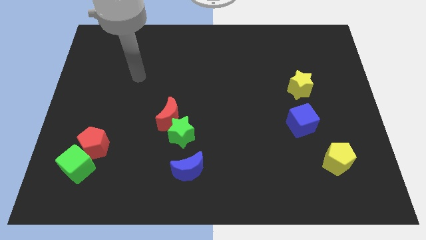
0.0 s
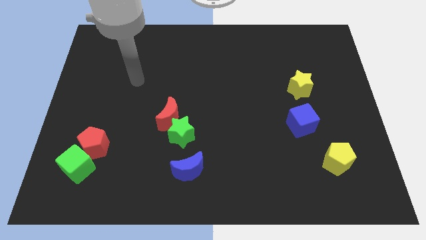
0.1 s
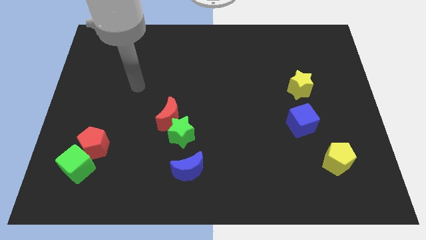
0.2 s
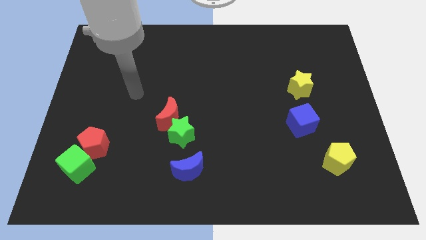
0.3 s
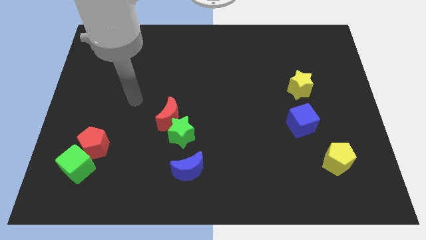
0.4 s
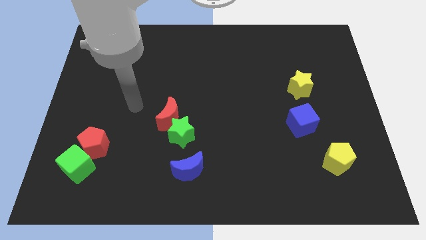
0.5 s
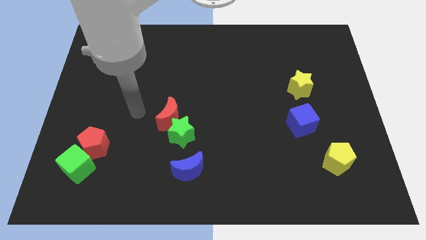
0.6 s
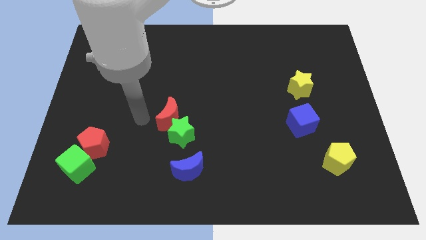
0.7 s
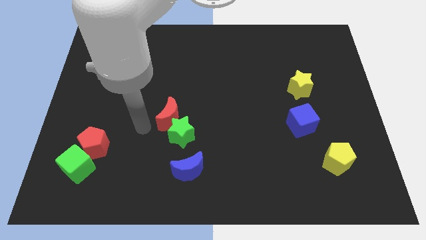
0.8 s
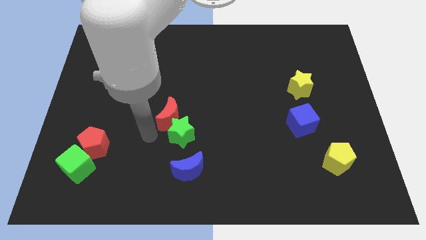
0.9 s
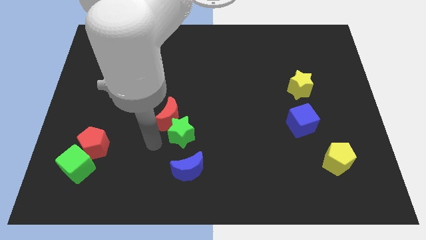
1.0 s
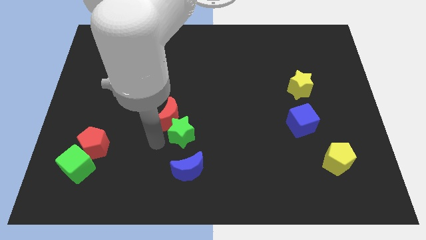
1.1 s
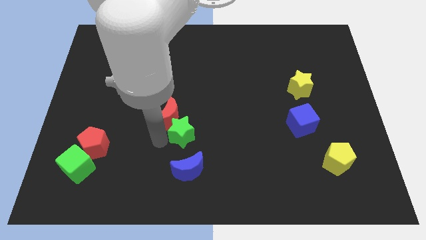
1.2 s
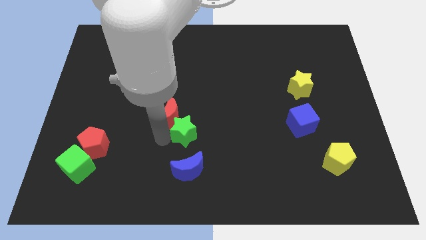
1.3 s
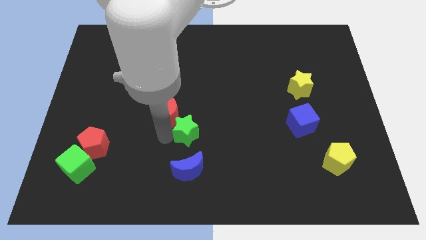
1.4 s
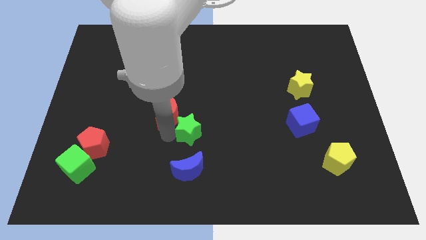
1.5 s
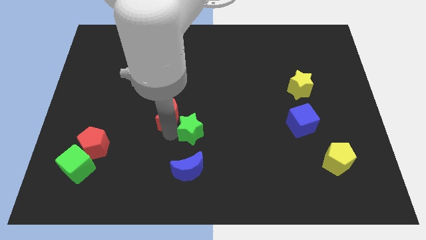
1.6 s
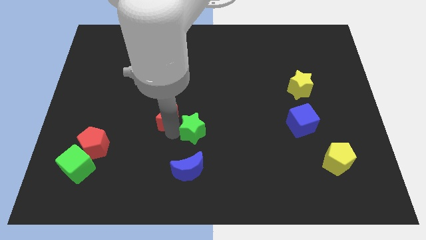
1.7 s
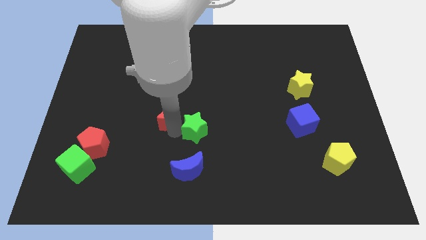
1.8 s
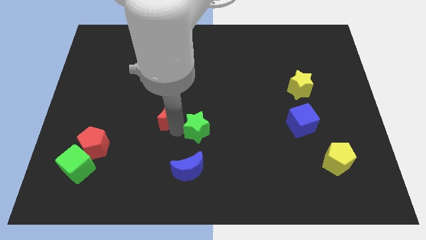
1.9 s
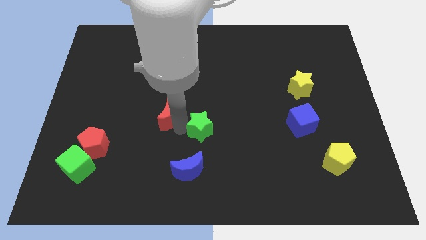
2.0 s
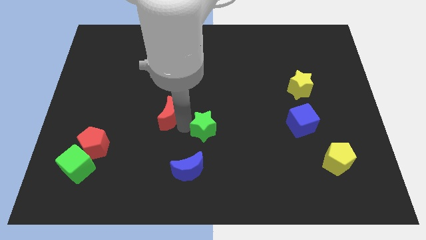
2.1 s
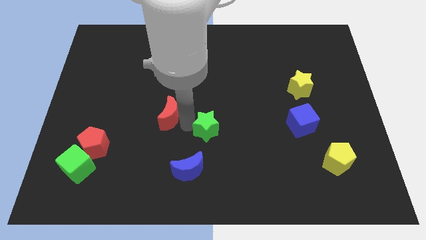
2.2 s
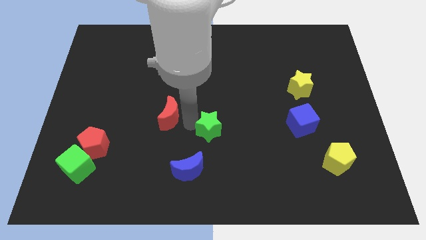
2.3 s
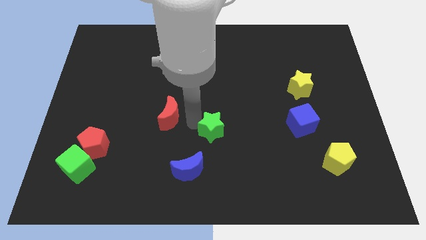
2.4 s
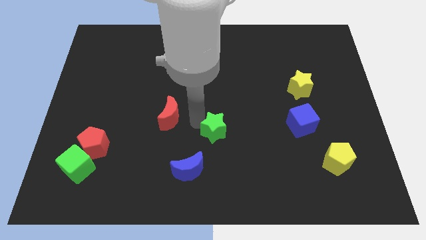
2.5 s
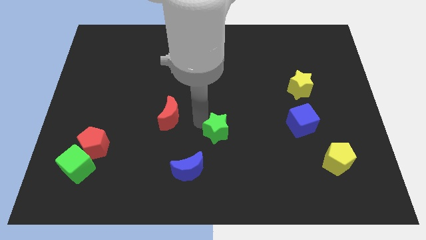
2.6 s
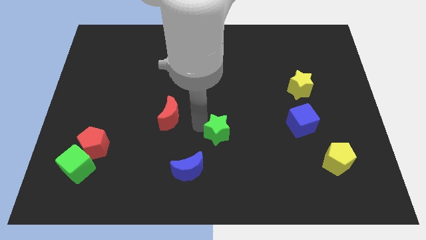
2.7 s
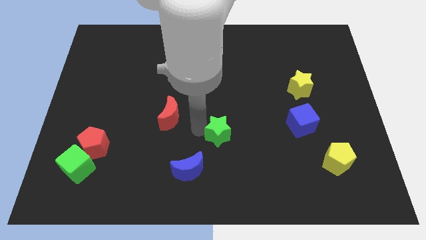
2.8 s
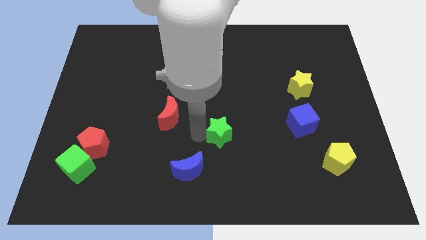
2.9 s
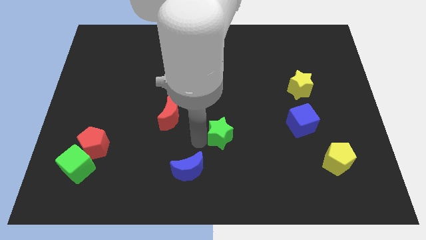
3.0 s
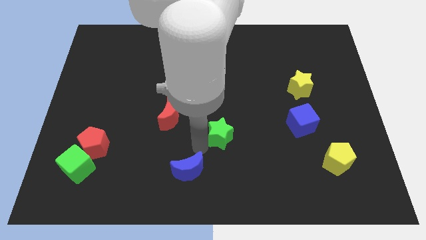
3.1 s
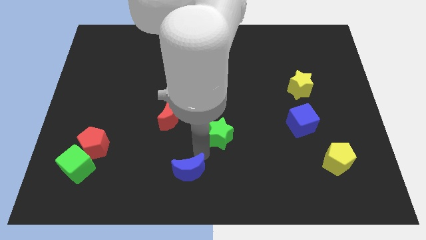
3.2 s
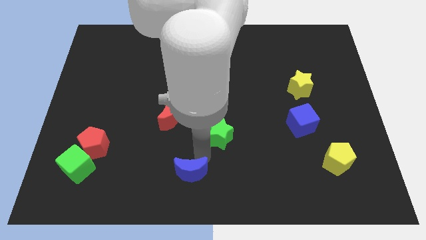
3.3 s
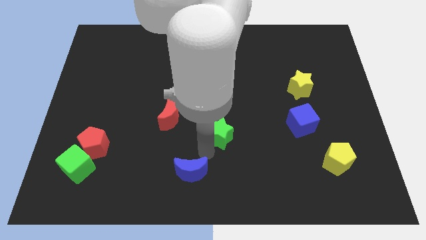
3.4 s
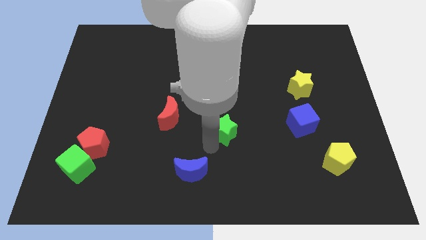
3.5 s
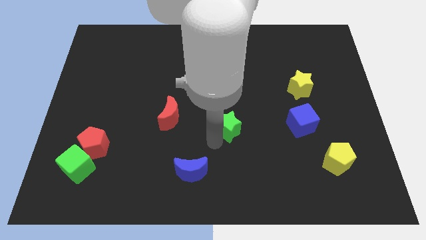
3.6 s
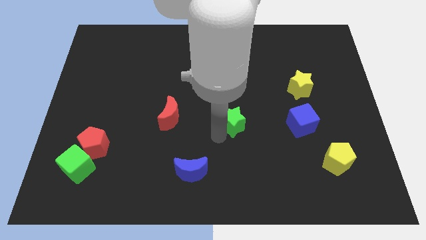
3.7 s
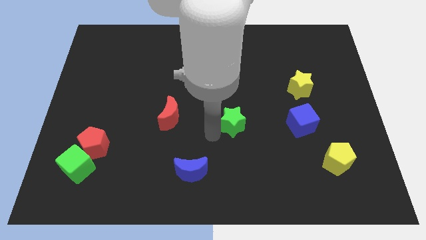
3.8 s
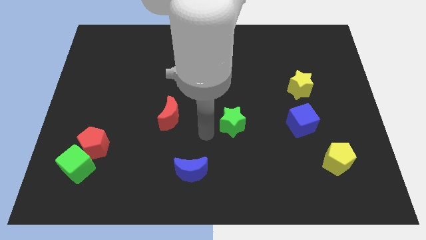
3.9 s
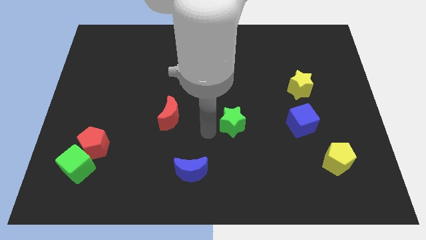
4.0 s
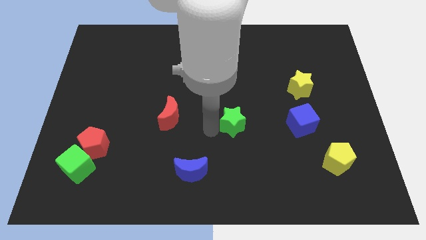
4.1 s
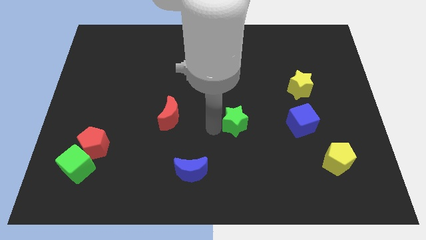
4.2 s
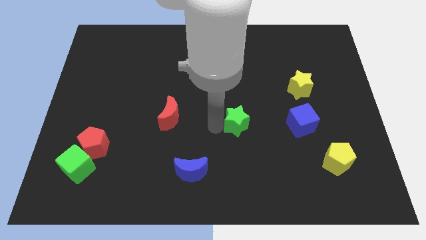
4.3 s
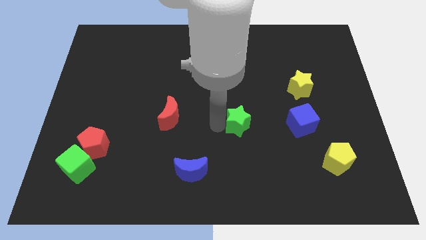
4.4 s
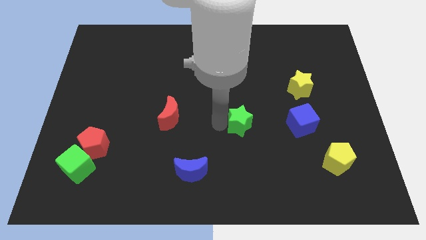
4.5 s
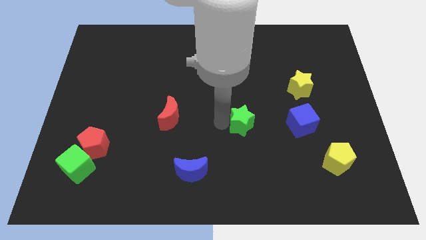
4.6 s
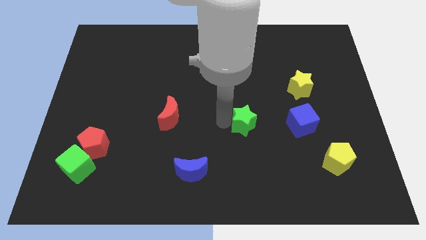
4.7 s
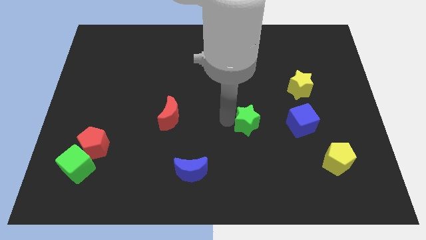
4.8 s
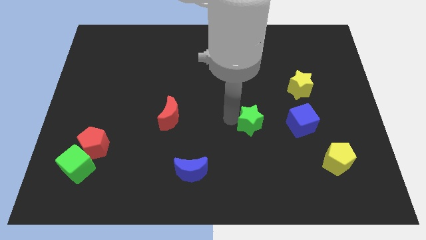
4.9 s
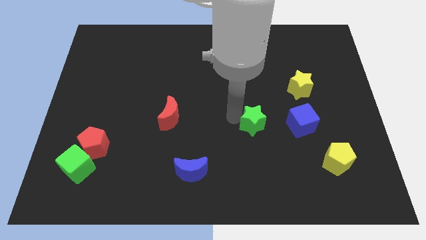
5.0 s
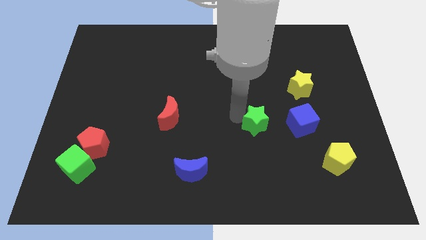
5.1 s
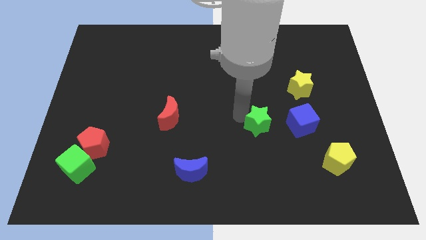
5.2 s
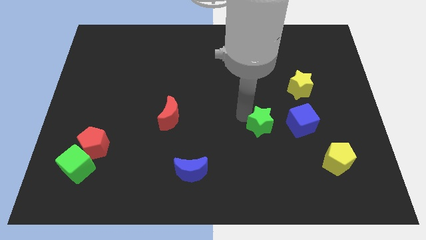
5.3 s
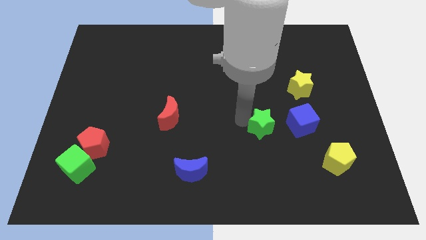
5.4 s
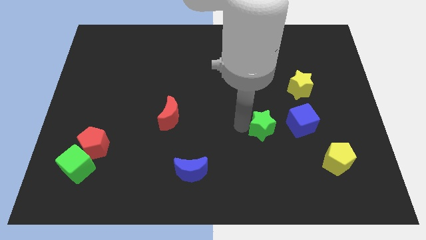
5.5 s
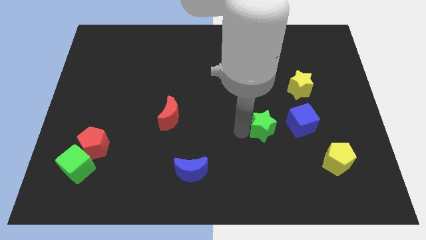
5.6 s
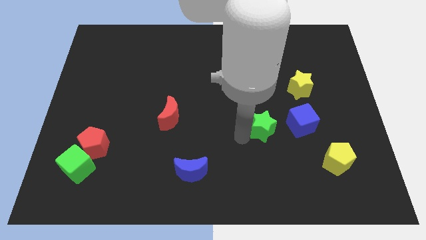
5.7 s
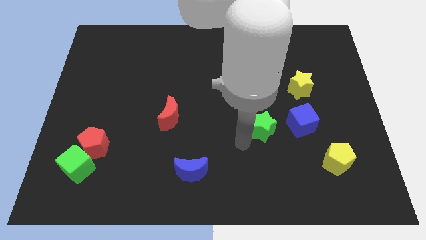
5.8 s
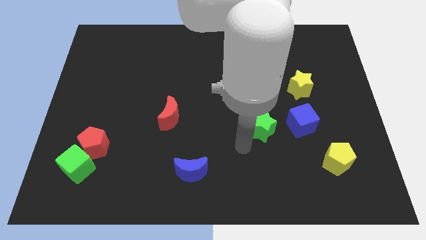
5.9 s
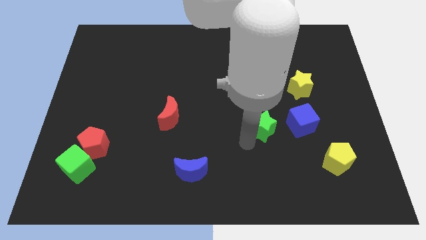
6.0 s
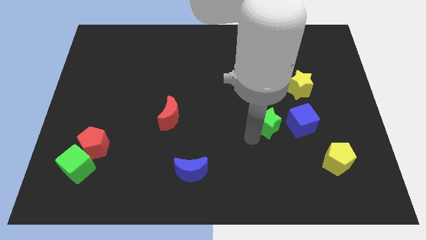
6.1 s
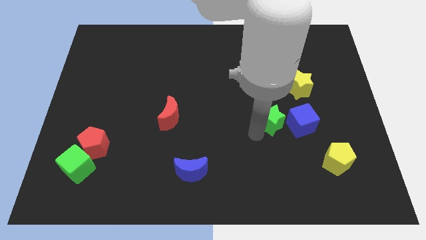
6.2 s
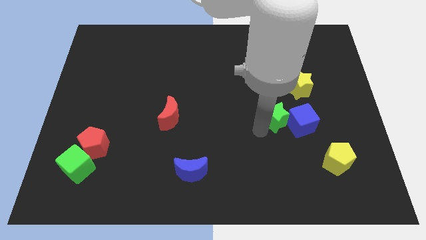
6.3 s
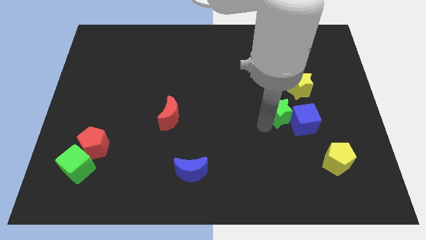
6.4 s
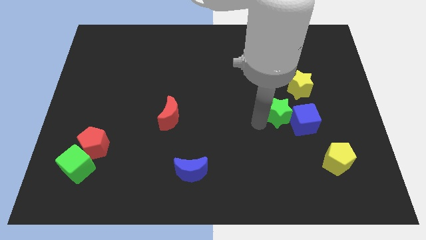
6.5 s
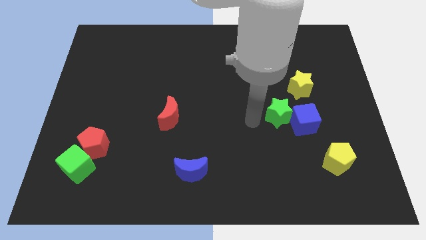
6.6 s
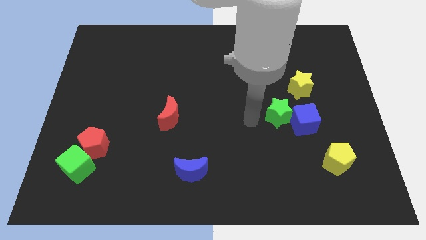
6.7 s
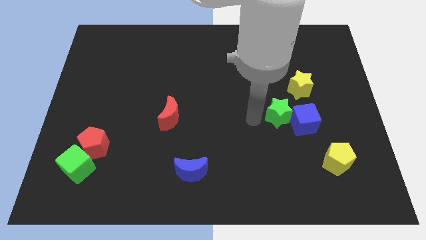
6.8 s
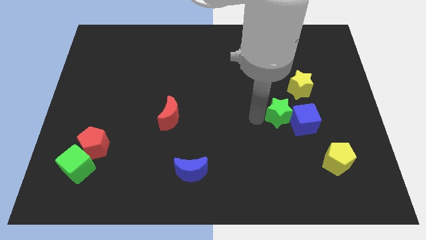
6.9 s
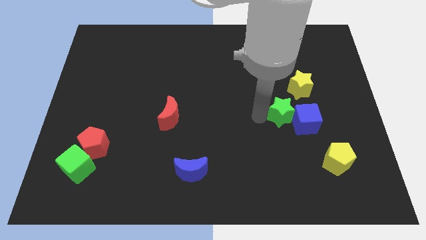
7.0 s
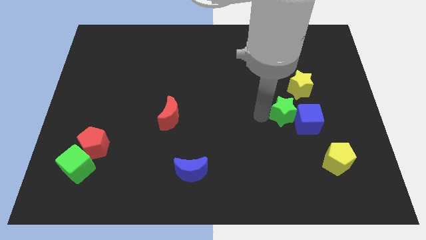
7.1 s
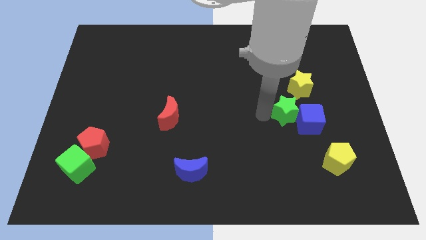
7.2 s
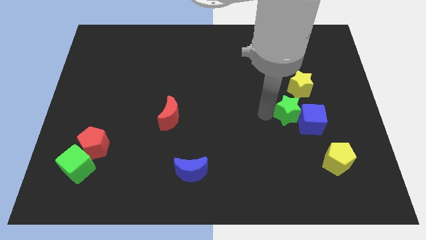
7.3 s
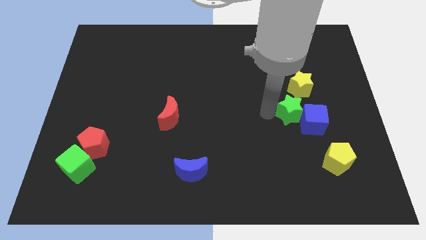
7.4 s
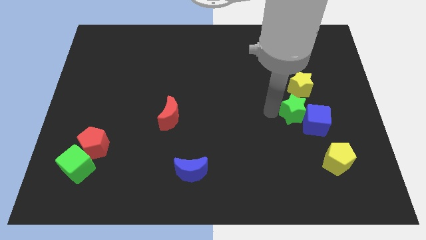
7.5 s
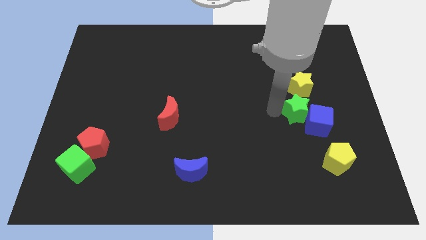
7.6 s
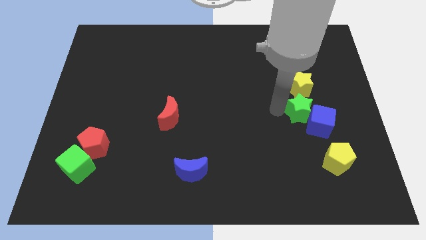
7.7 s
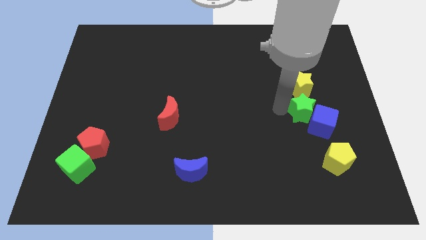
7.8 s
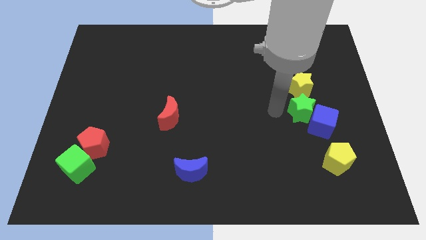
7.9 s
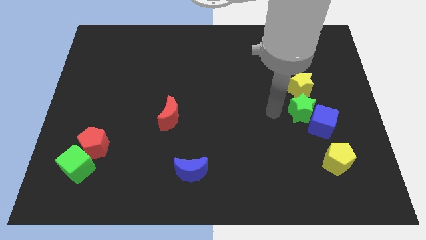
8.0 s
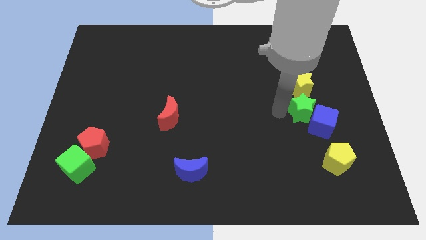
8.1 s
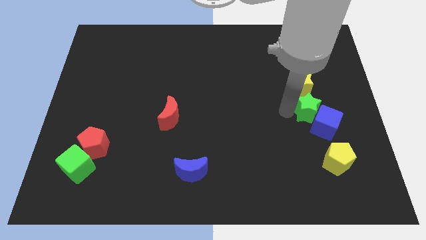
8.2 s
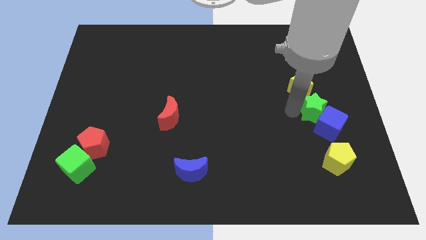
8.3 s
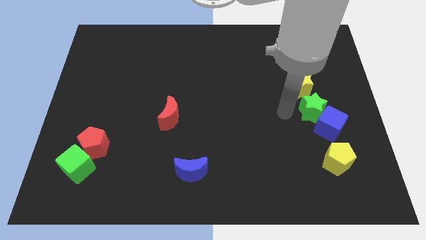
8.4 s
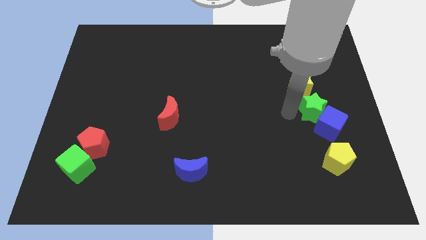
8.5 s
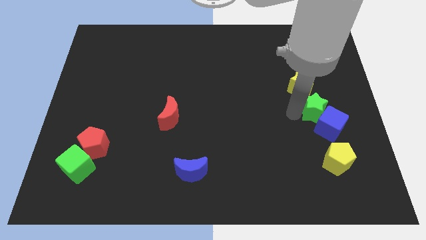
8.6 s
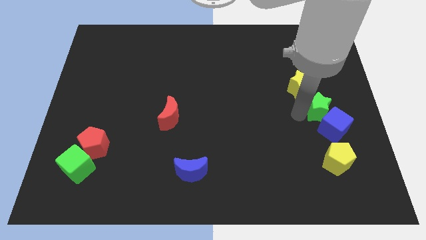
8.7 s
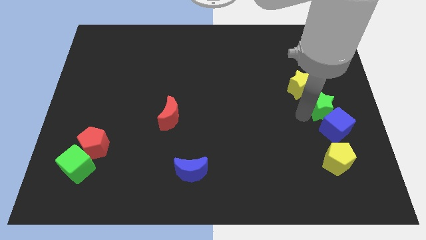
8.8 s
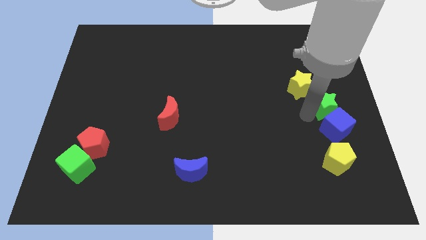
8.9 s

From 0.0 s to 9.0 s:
slide the green star to the center right
